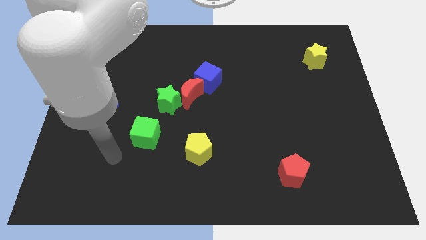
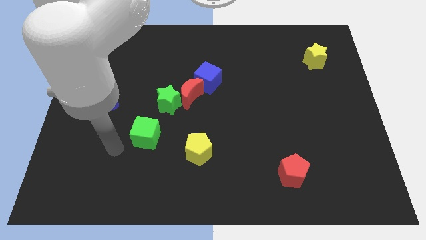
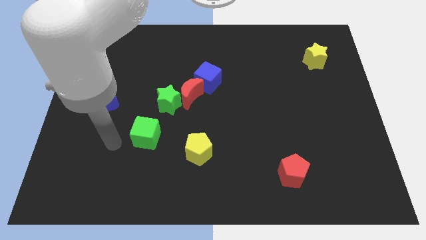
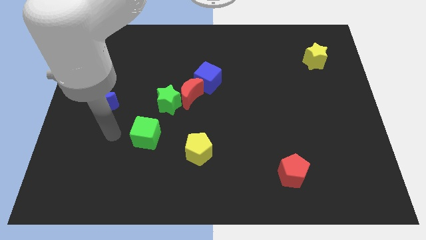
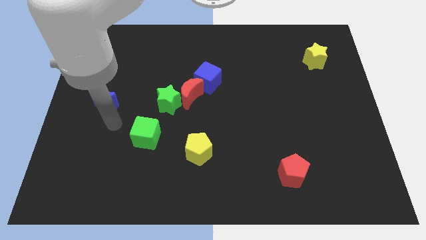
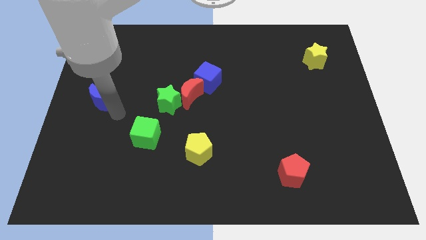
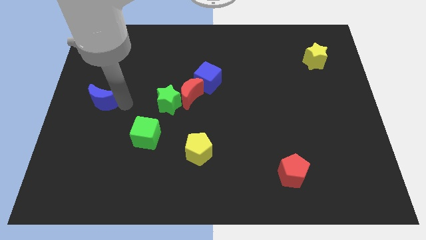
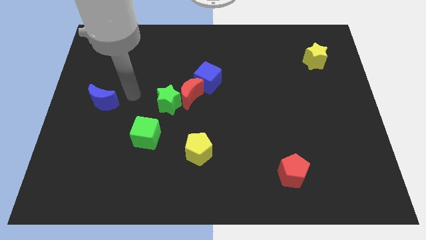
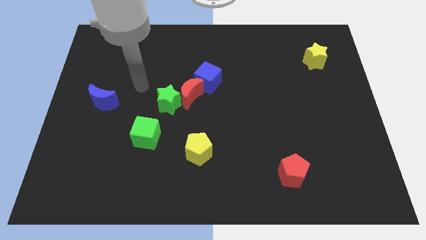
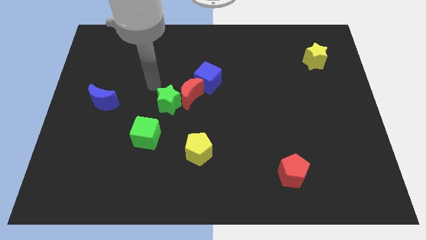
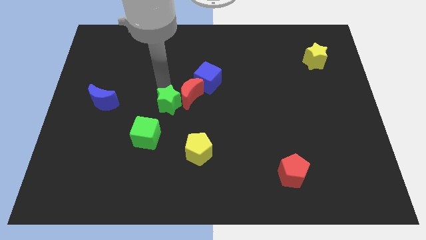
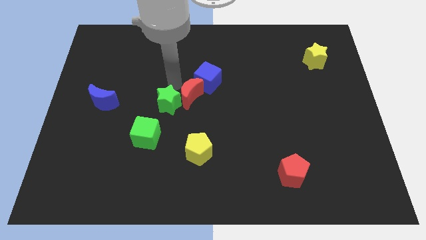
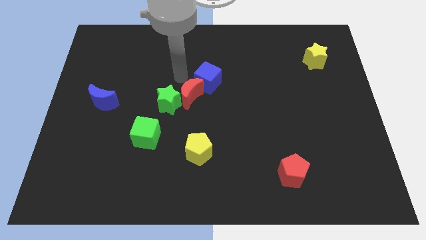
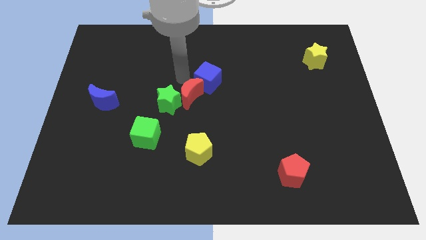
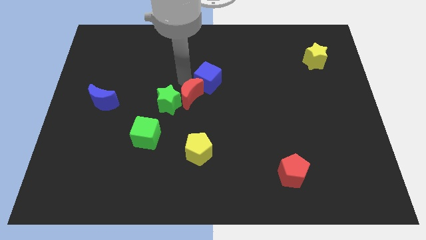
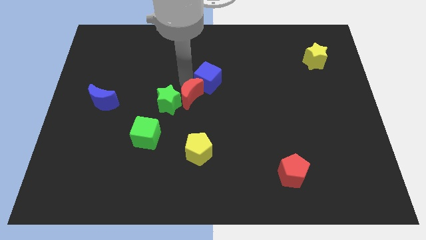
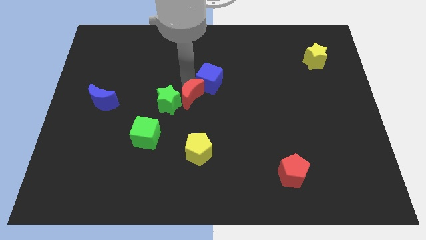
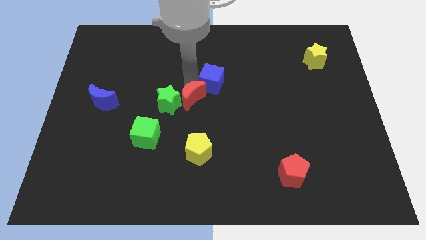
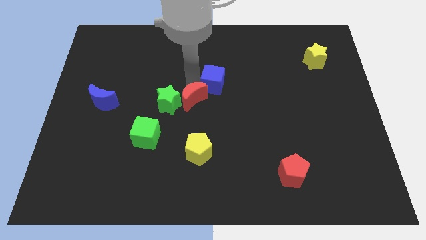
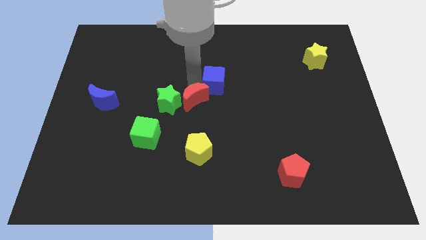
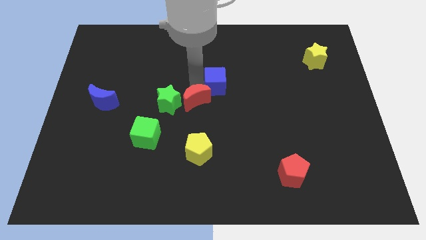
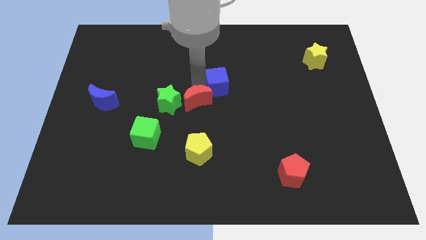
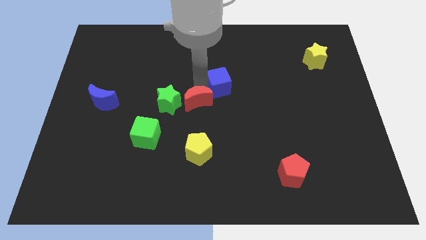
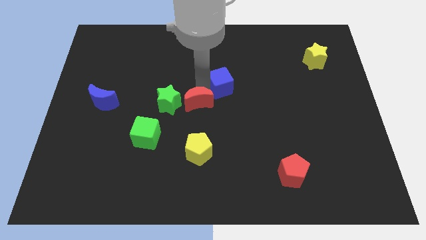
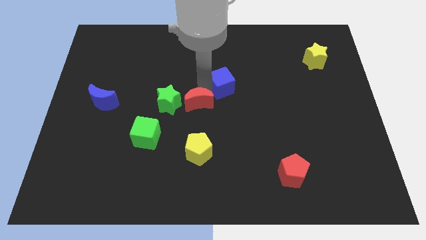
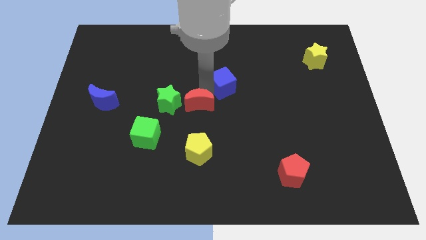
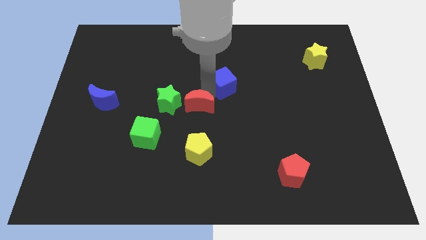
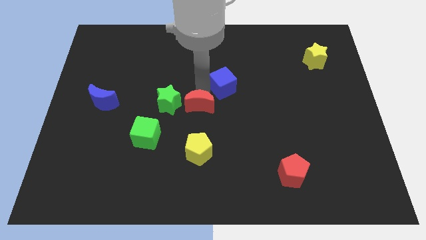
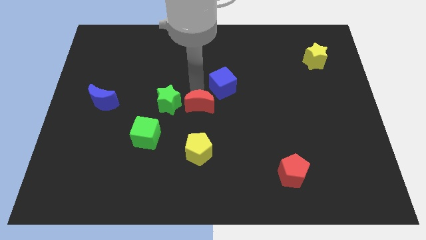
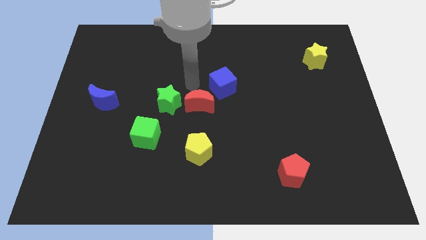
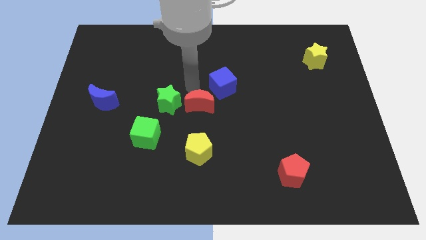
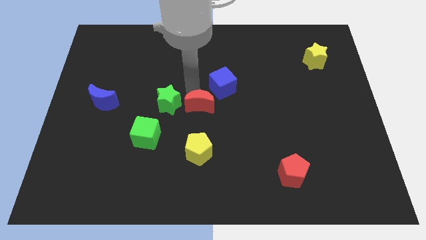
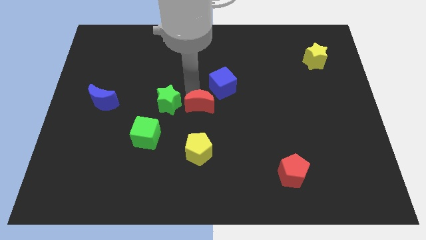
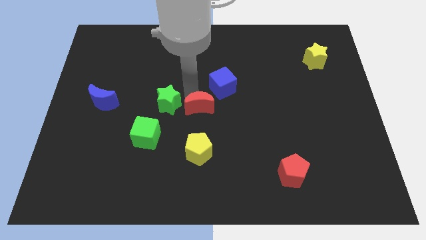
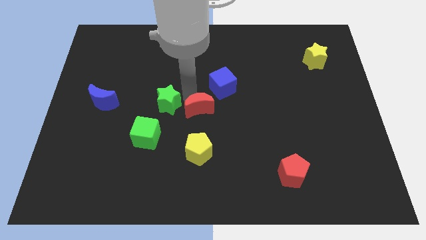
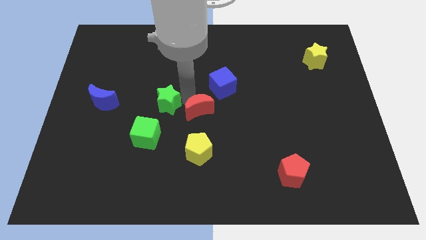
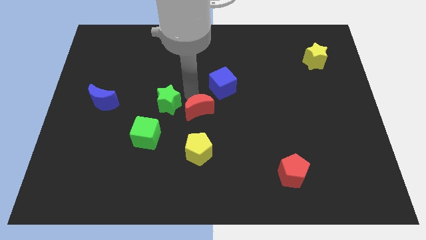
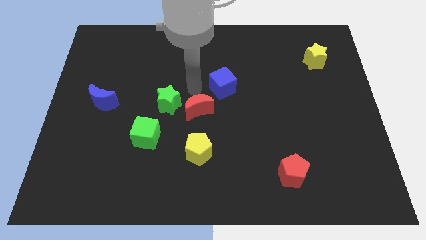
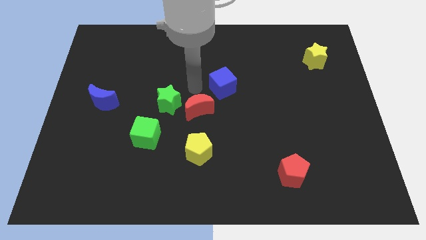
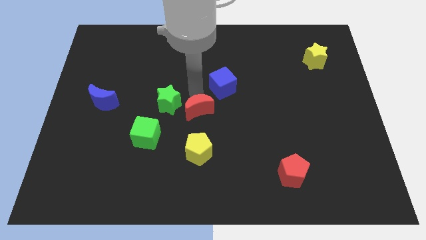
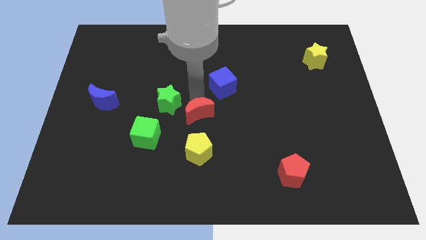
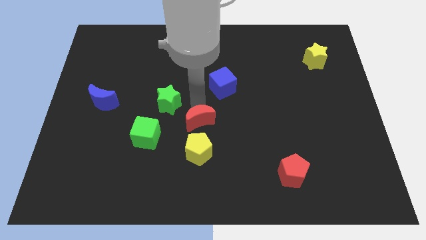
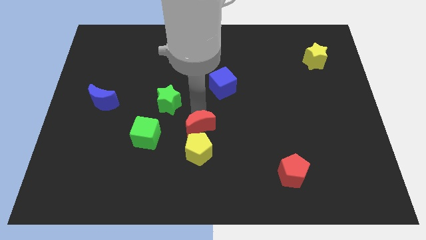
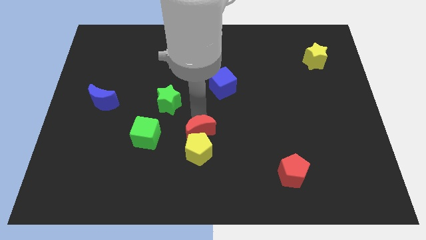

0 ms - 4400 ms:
move the red moon away from the green star and blue cube

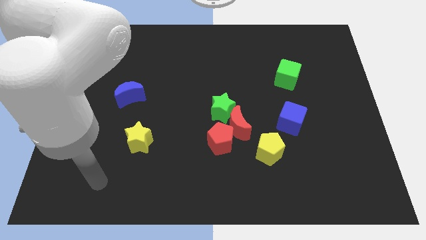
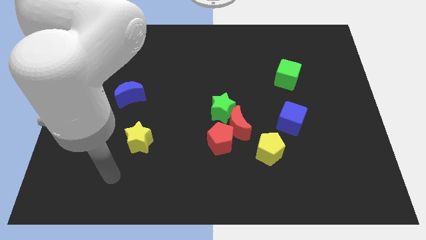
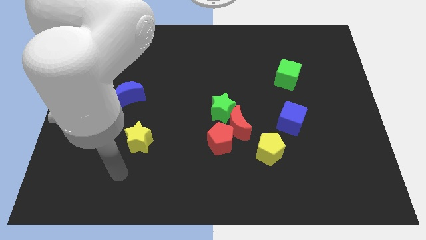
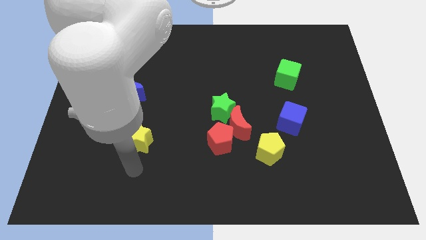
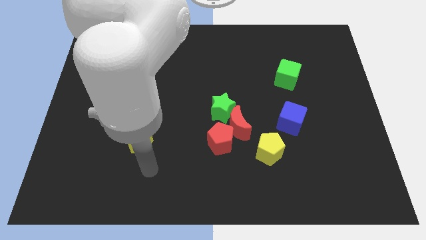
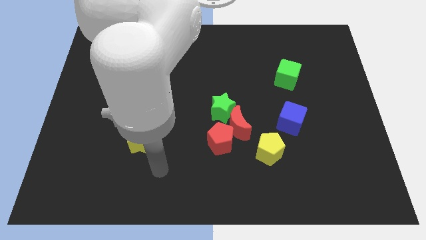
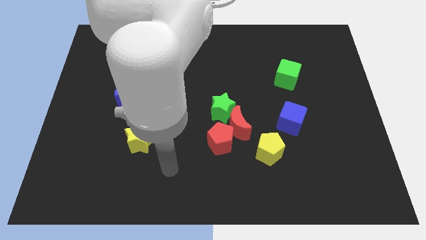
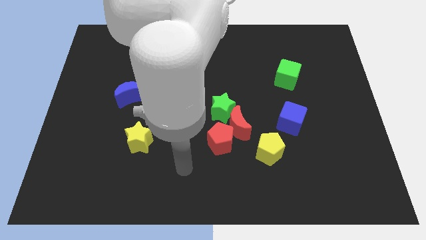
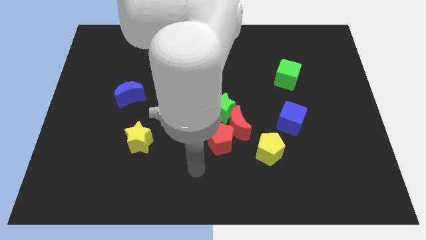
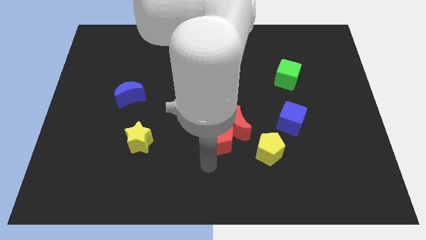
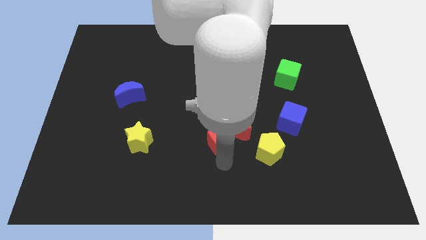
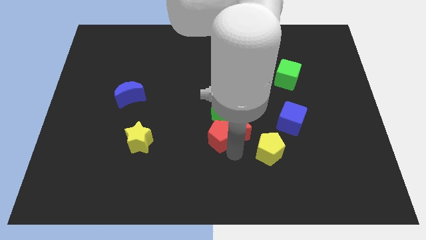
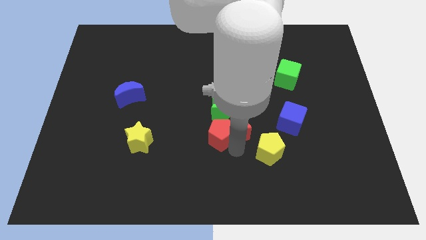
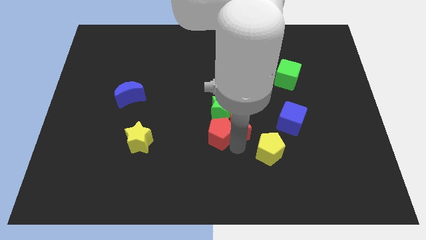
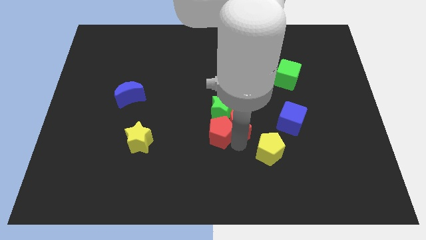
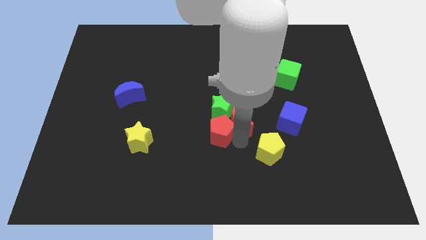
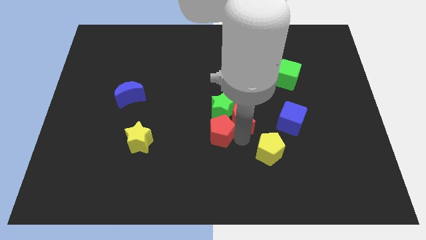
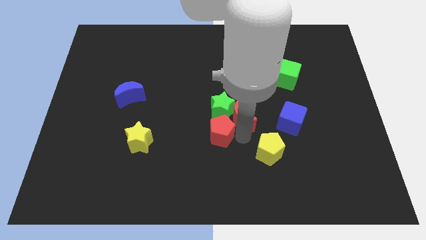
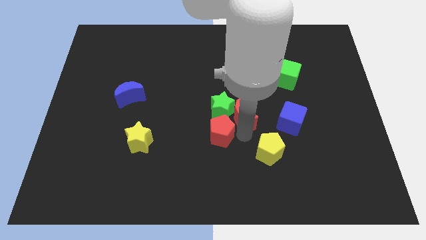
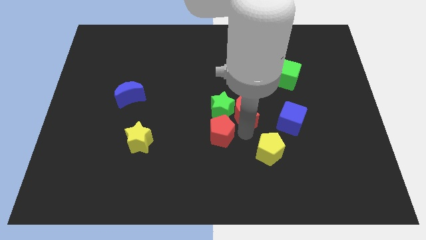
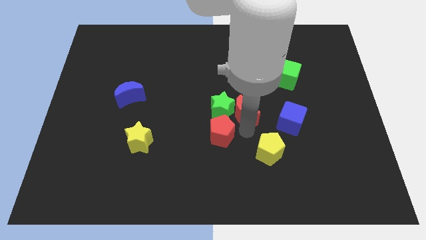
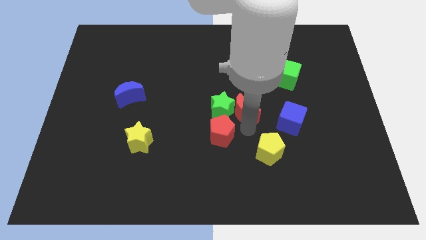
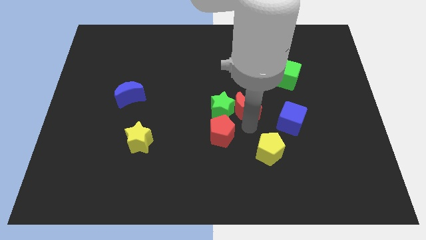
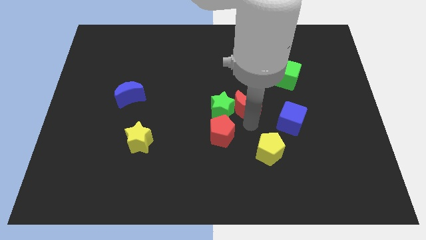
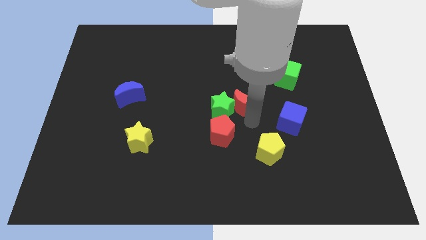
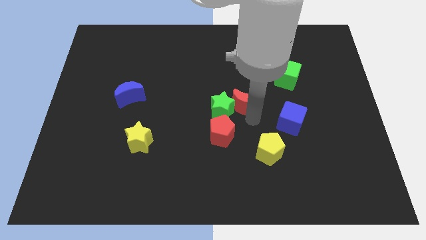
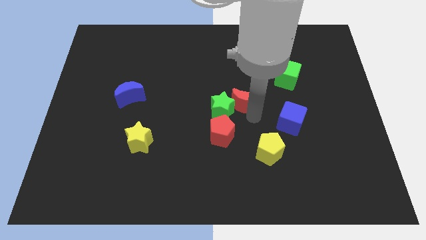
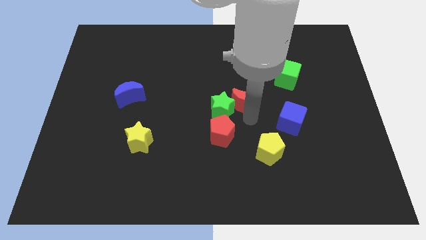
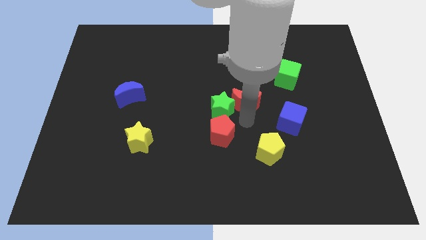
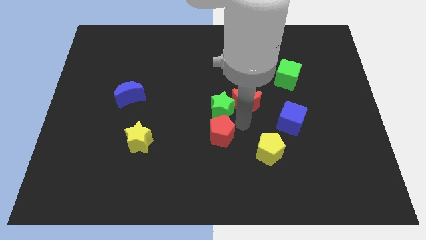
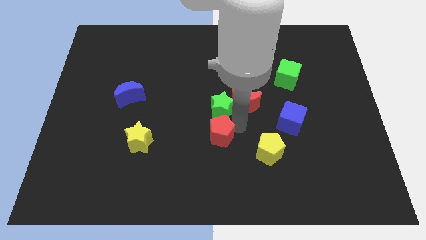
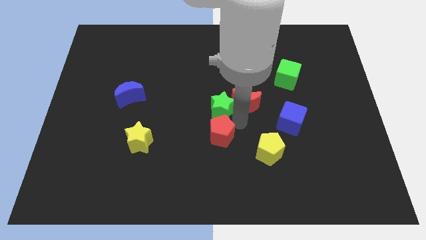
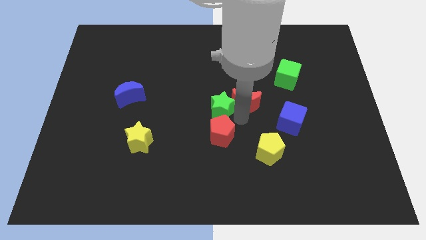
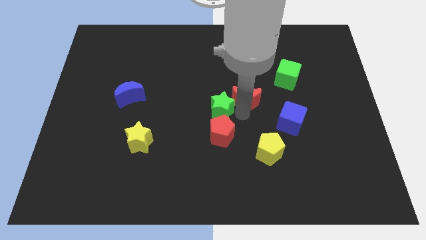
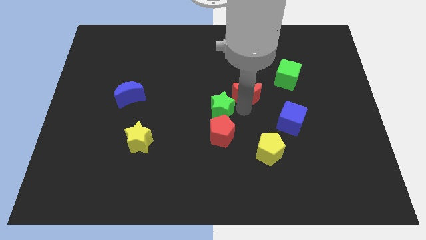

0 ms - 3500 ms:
move the red moon away from the red pentagon, green star, and yellow pentagon

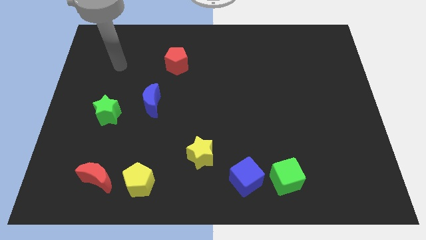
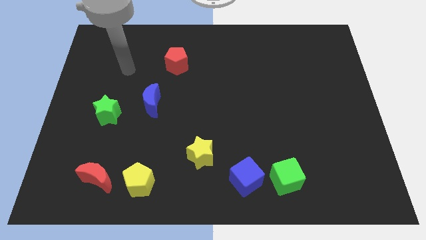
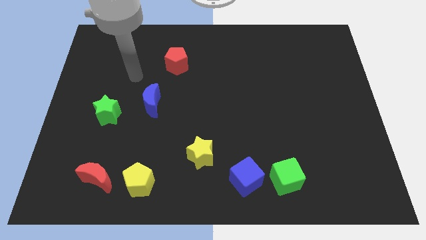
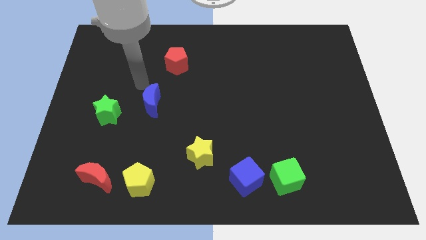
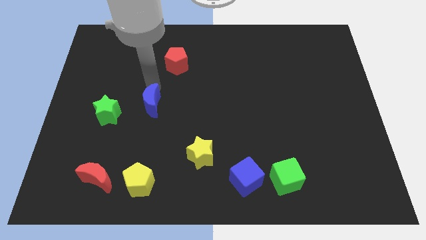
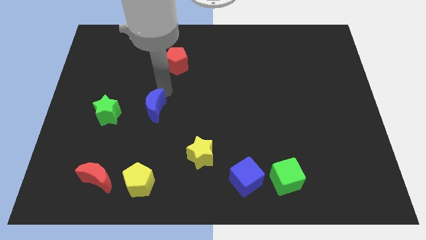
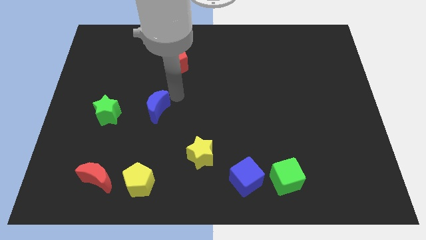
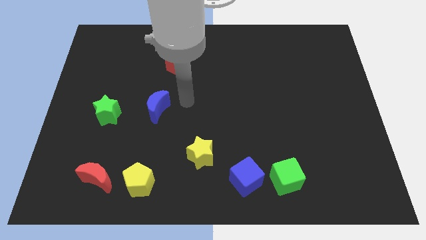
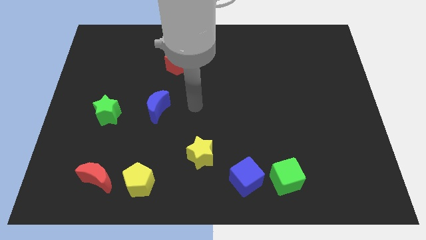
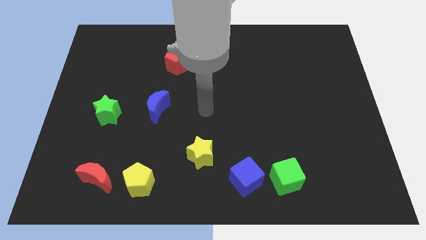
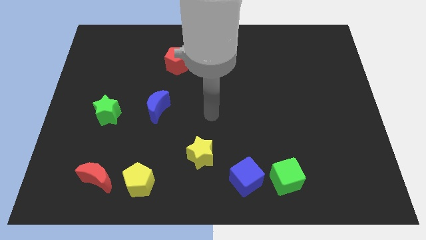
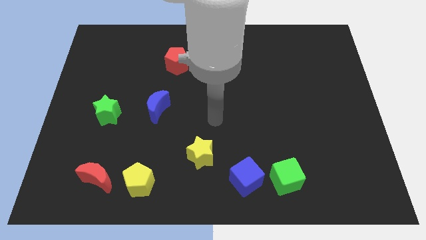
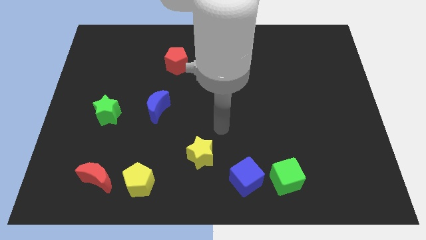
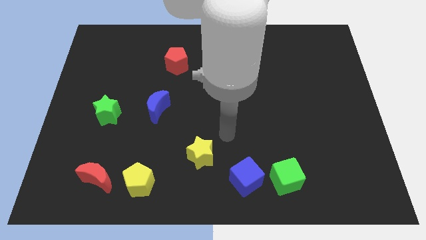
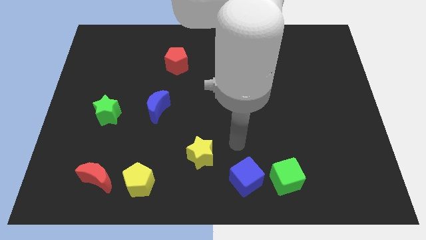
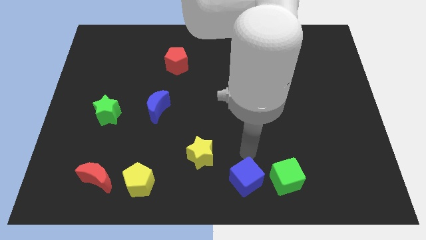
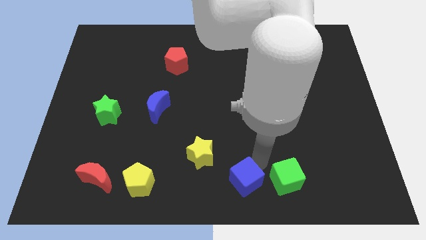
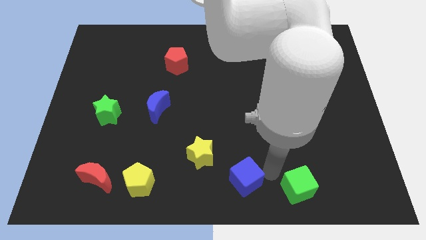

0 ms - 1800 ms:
pull the blue cube apart from the green cube
